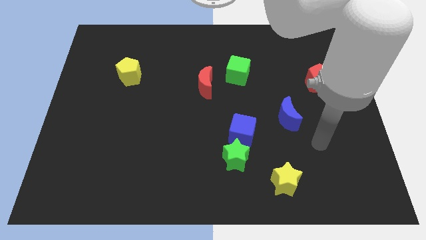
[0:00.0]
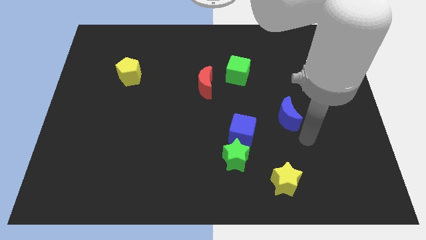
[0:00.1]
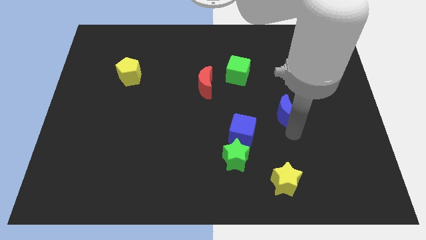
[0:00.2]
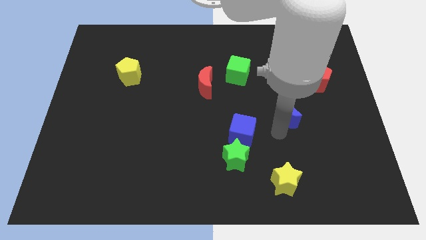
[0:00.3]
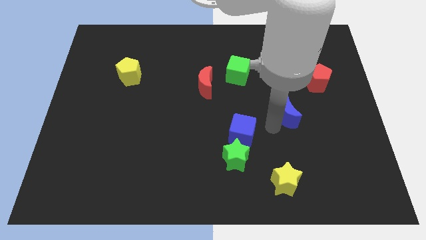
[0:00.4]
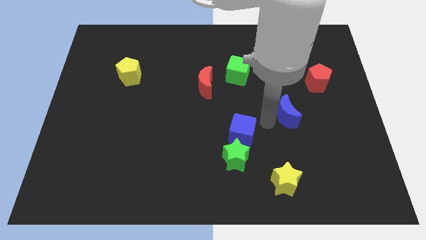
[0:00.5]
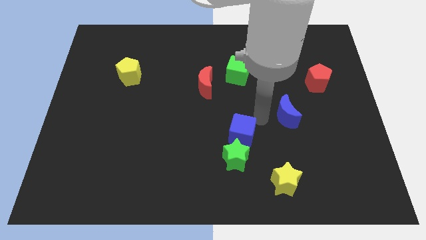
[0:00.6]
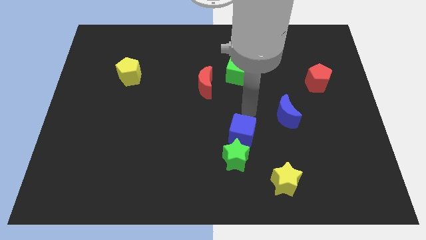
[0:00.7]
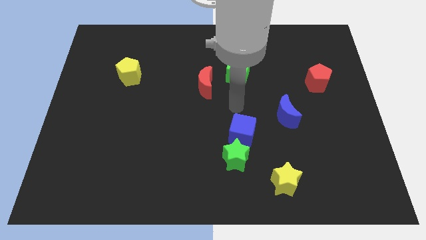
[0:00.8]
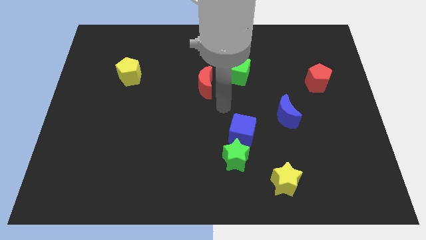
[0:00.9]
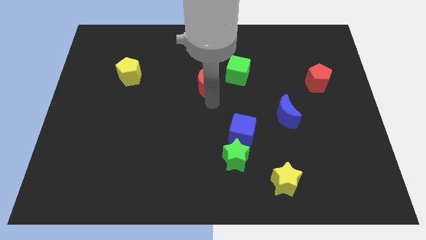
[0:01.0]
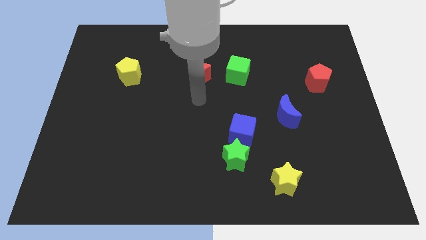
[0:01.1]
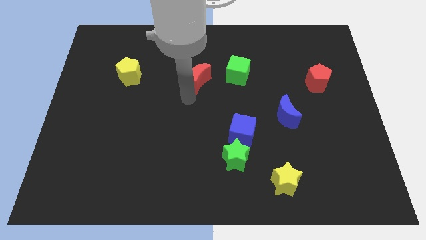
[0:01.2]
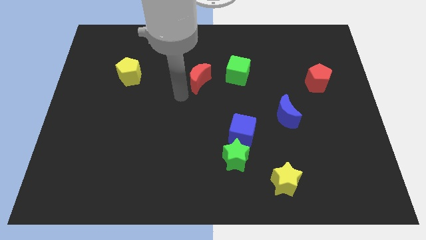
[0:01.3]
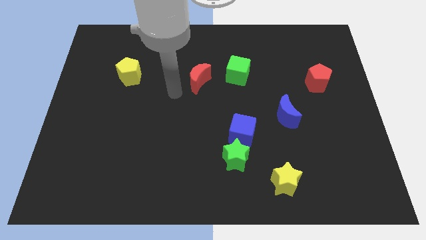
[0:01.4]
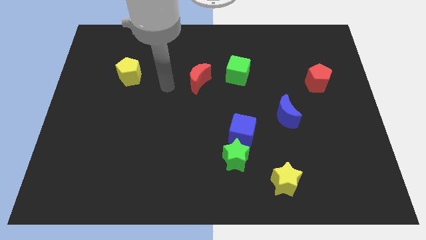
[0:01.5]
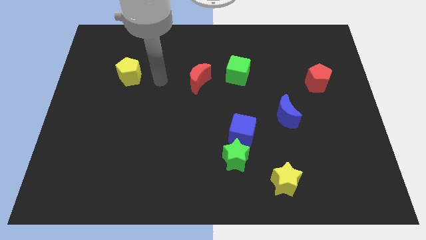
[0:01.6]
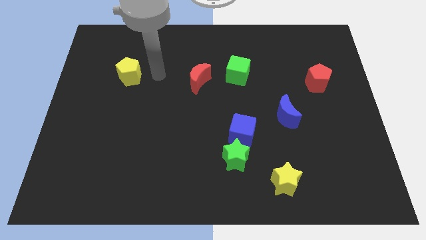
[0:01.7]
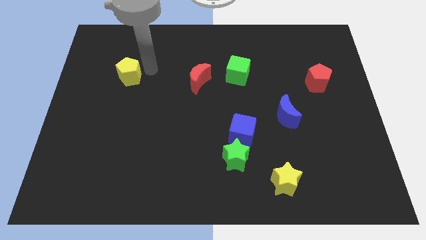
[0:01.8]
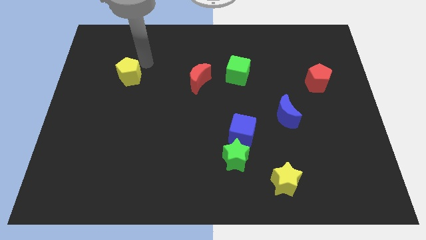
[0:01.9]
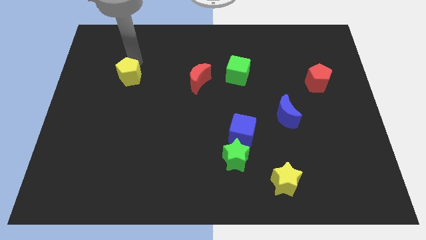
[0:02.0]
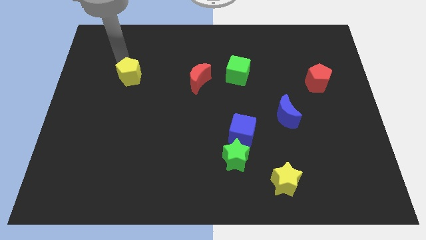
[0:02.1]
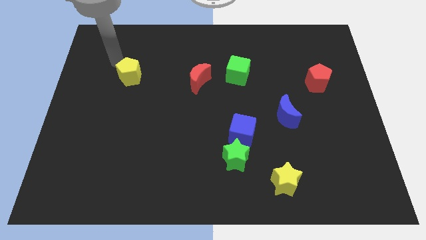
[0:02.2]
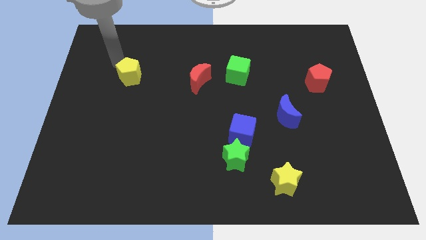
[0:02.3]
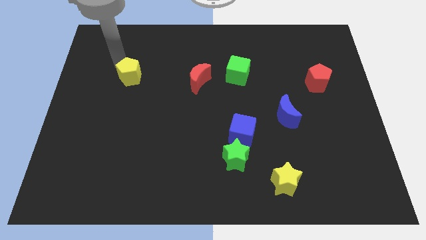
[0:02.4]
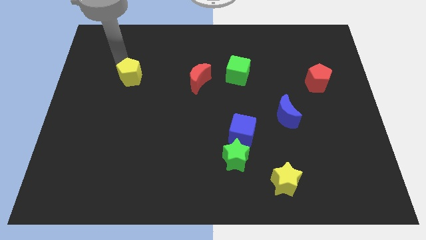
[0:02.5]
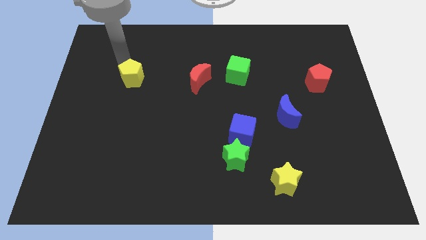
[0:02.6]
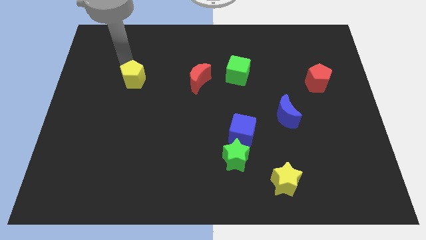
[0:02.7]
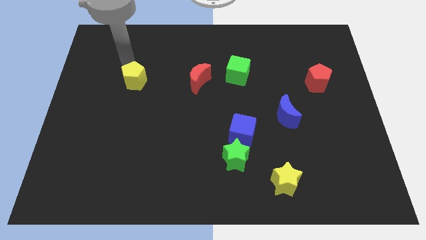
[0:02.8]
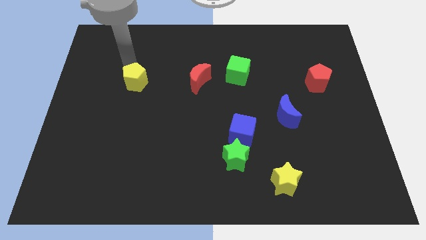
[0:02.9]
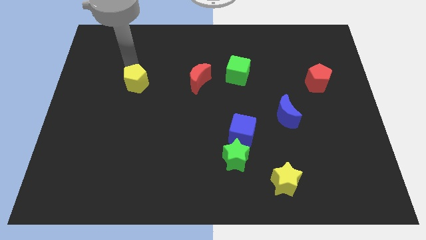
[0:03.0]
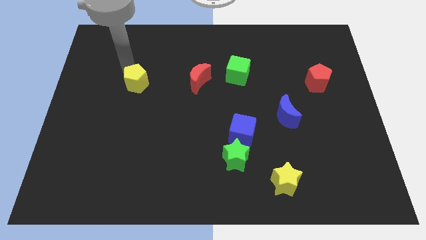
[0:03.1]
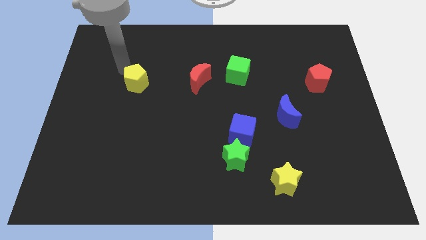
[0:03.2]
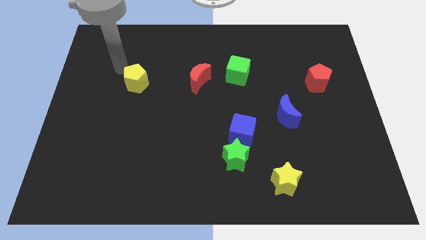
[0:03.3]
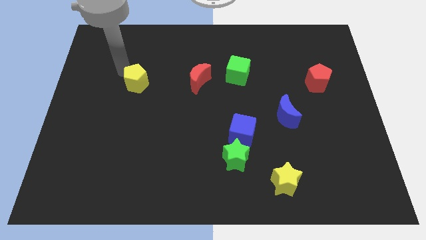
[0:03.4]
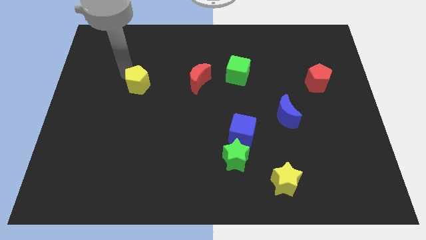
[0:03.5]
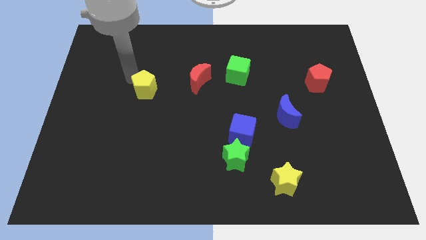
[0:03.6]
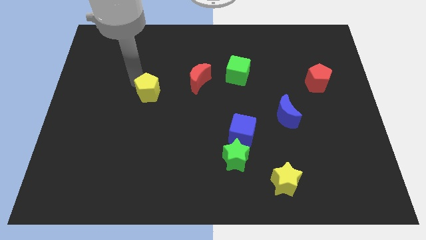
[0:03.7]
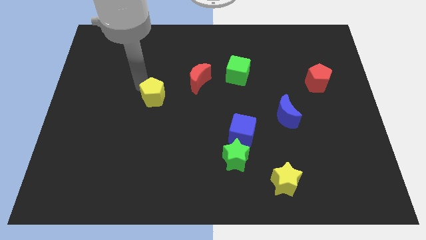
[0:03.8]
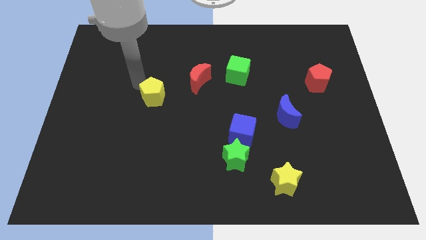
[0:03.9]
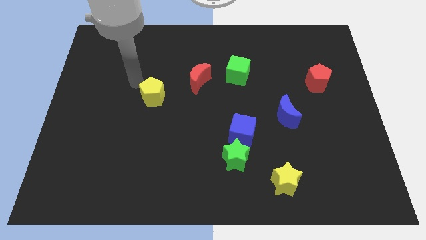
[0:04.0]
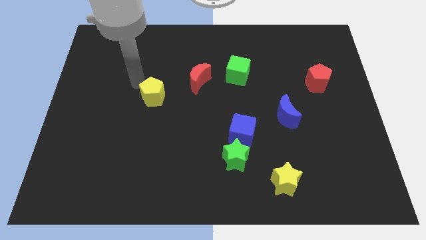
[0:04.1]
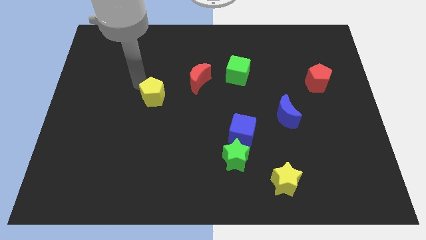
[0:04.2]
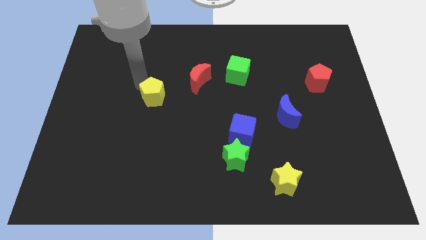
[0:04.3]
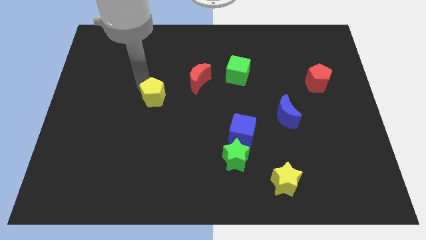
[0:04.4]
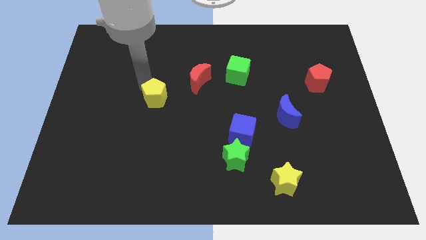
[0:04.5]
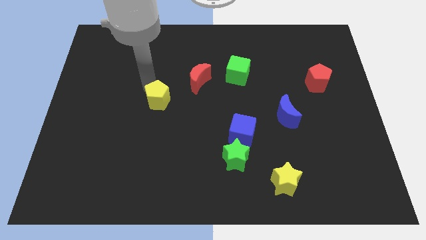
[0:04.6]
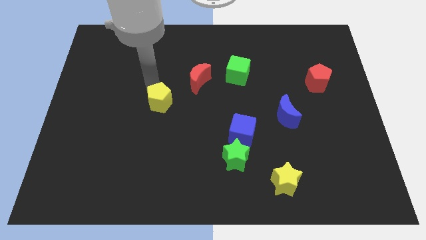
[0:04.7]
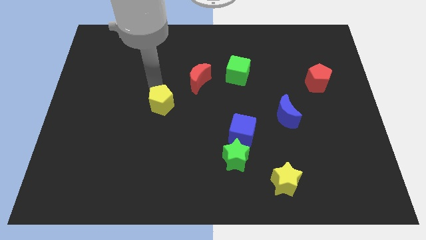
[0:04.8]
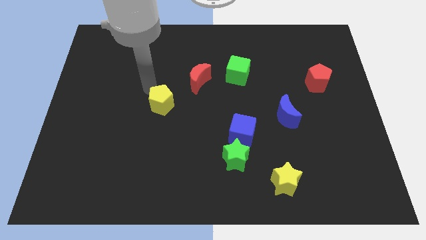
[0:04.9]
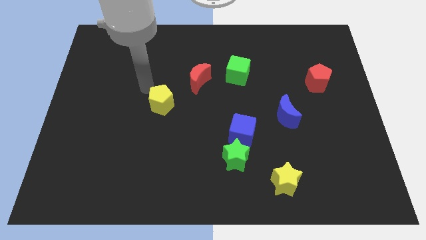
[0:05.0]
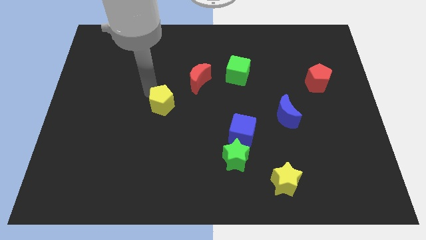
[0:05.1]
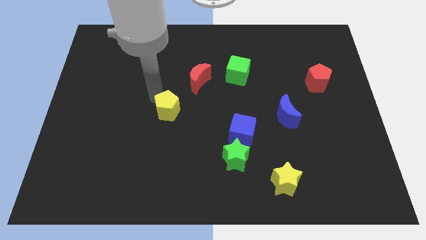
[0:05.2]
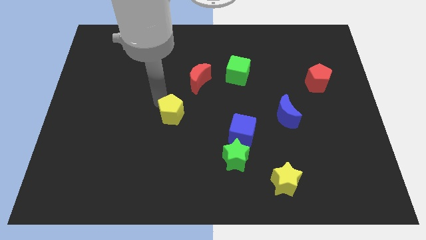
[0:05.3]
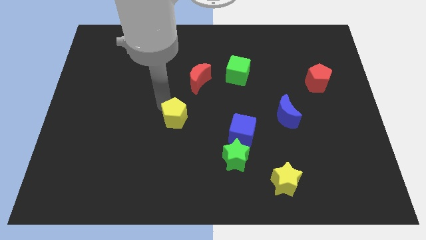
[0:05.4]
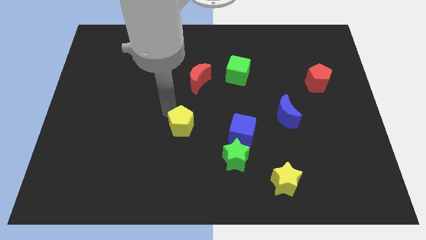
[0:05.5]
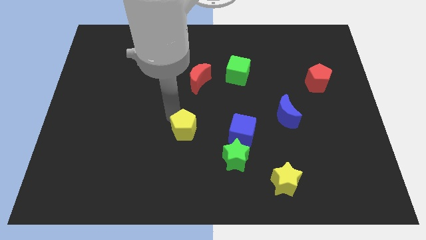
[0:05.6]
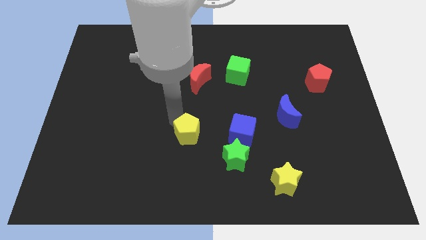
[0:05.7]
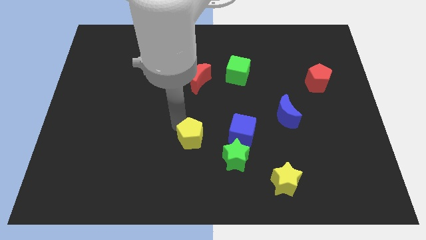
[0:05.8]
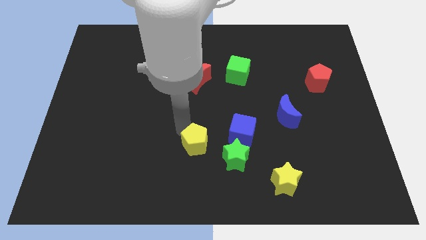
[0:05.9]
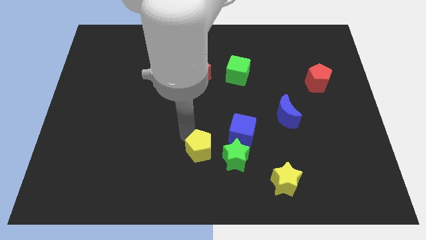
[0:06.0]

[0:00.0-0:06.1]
move the yellow pentagon diagonally down and to the left of the blue cube
